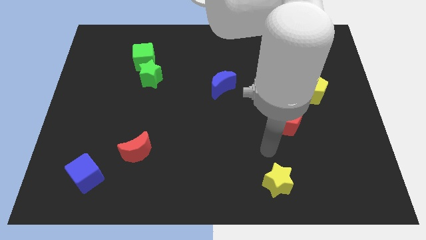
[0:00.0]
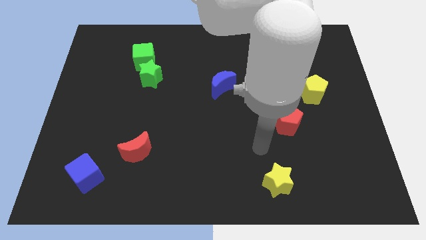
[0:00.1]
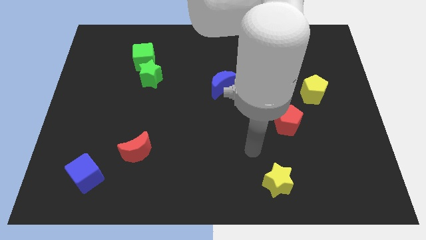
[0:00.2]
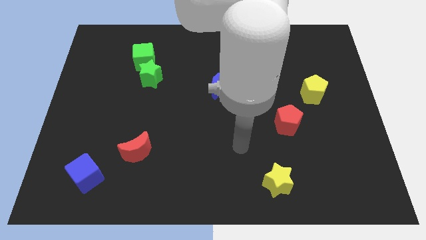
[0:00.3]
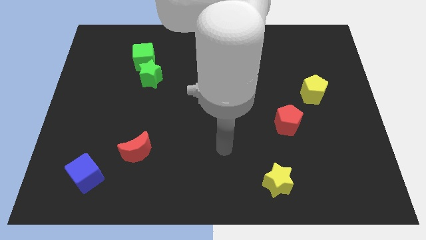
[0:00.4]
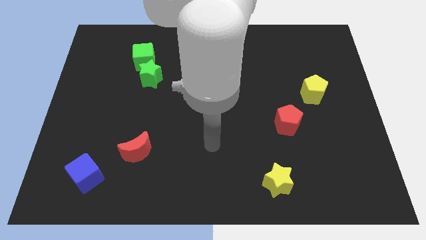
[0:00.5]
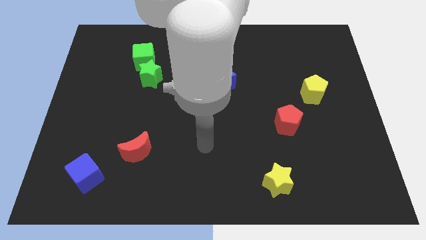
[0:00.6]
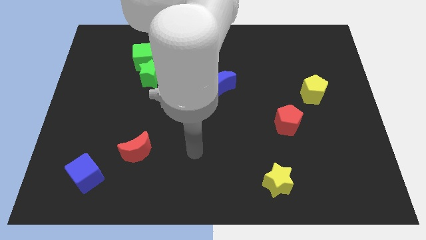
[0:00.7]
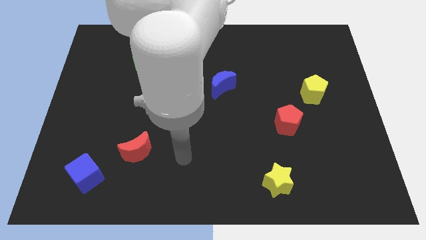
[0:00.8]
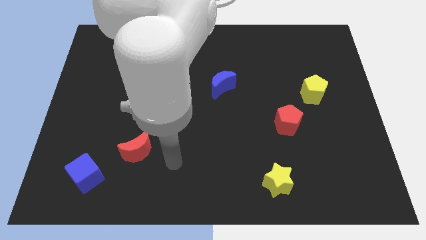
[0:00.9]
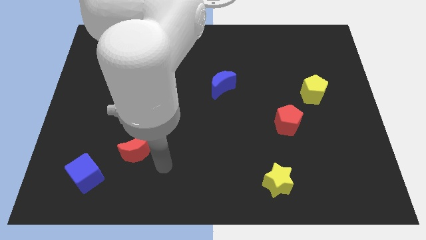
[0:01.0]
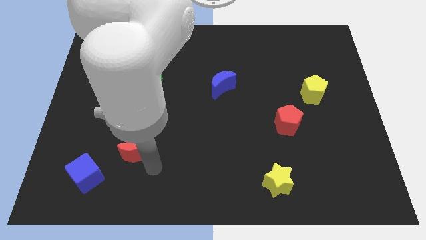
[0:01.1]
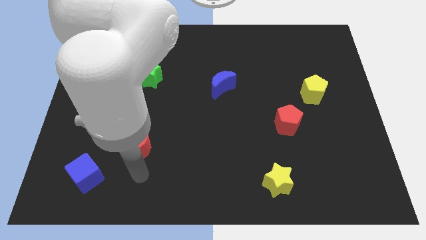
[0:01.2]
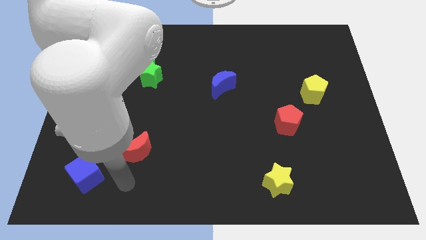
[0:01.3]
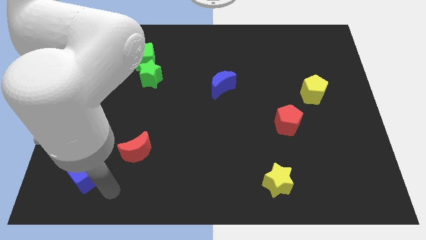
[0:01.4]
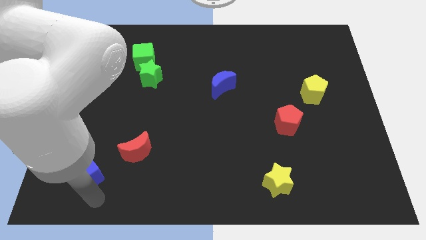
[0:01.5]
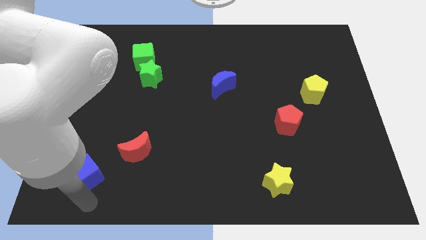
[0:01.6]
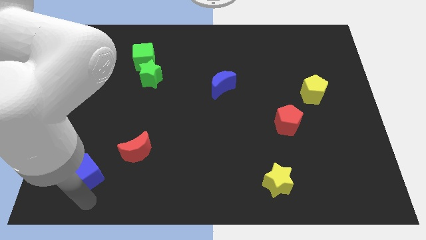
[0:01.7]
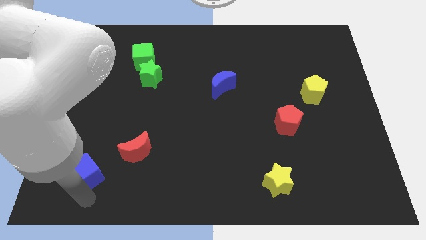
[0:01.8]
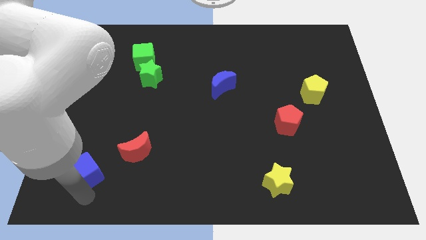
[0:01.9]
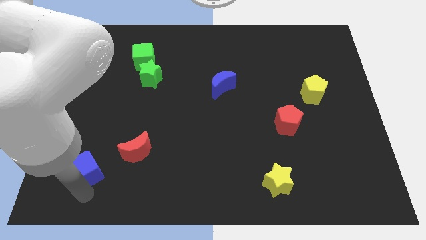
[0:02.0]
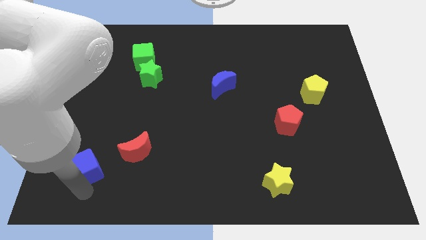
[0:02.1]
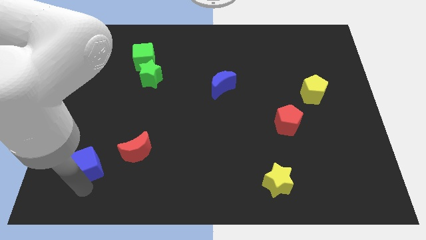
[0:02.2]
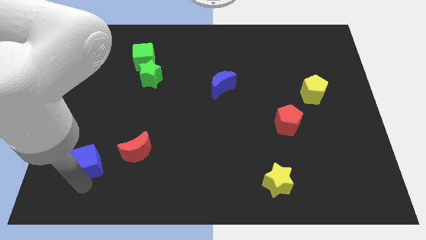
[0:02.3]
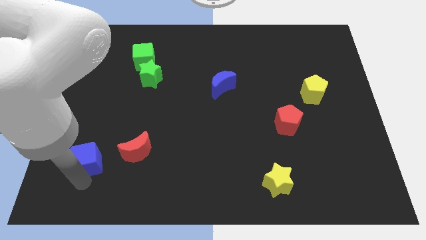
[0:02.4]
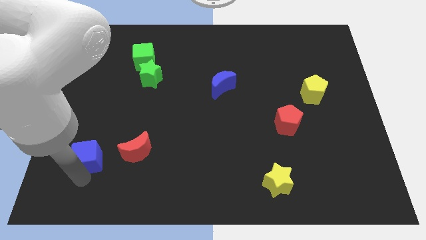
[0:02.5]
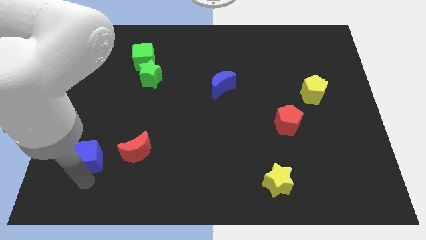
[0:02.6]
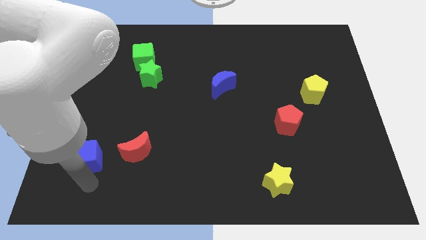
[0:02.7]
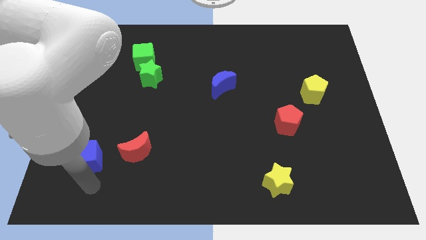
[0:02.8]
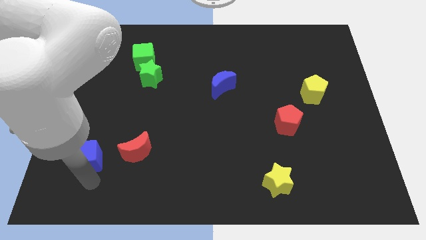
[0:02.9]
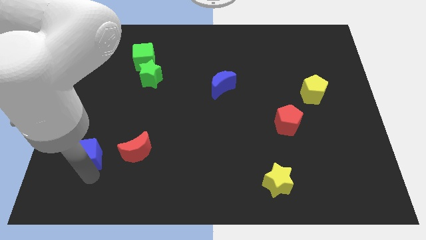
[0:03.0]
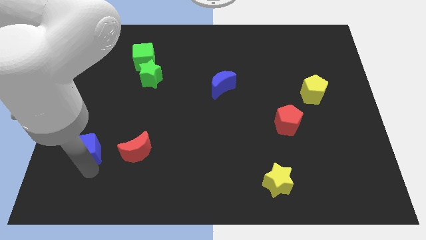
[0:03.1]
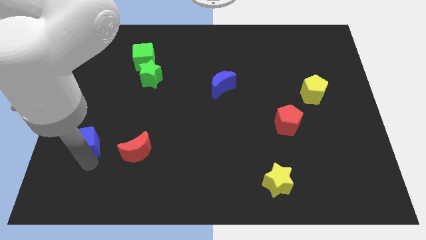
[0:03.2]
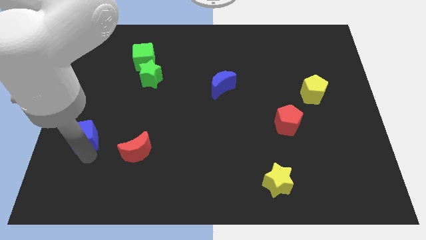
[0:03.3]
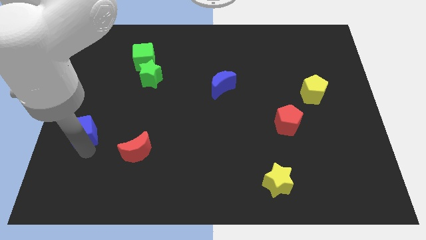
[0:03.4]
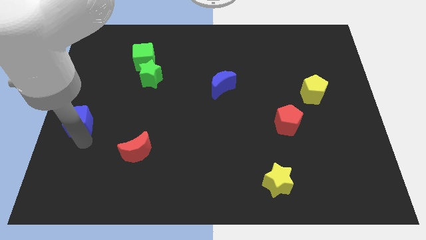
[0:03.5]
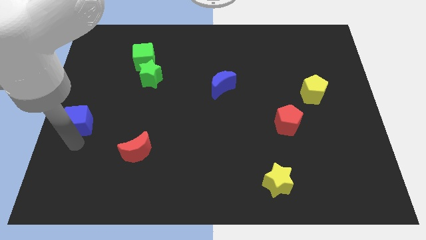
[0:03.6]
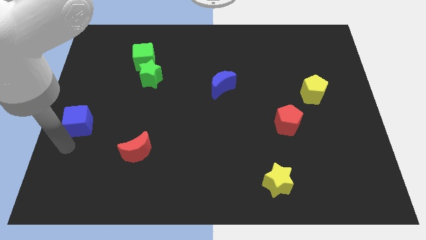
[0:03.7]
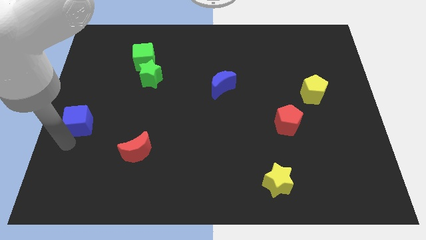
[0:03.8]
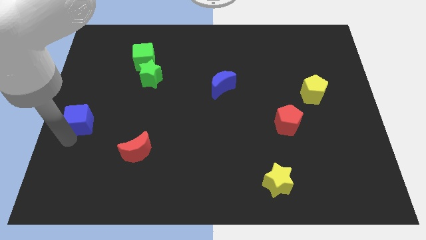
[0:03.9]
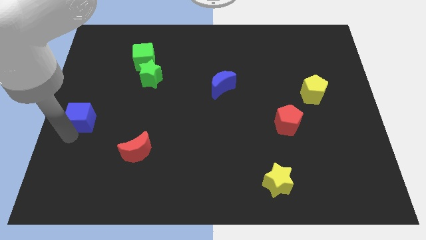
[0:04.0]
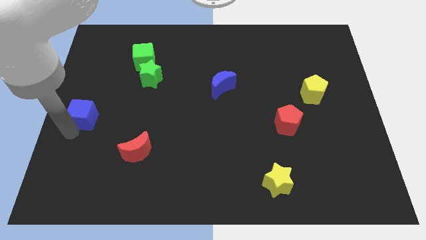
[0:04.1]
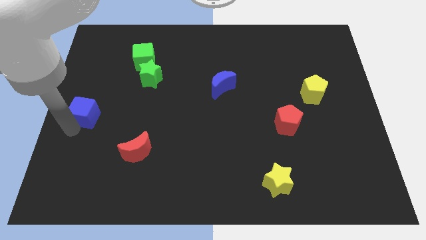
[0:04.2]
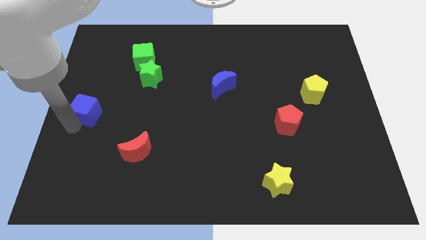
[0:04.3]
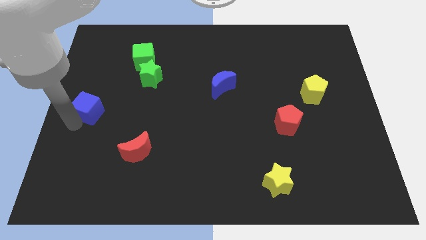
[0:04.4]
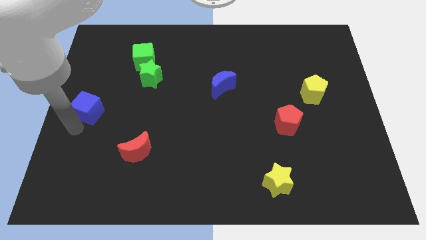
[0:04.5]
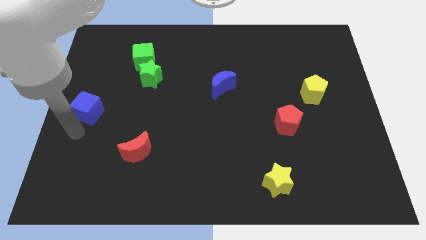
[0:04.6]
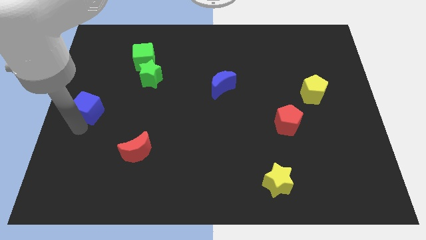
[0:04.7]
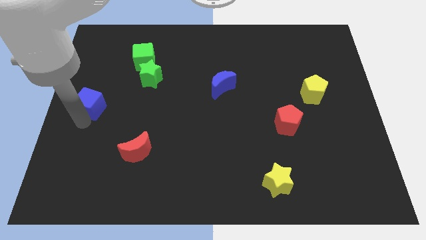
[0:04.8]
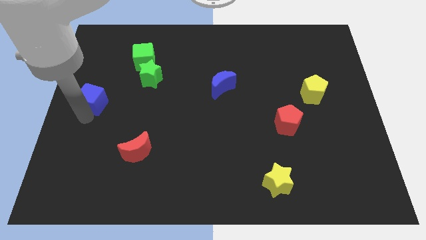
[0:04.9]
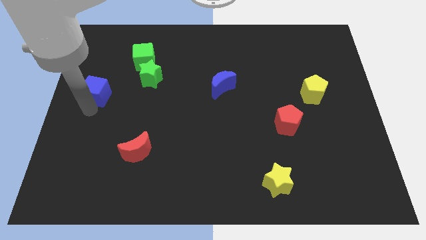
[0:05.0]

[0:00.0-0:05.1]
move the blue cube up

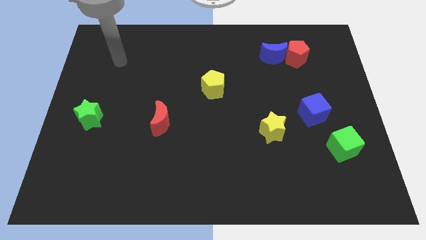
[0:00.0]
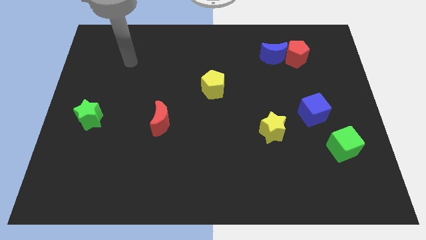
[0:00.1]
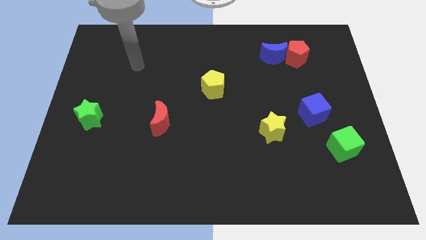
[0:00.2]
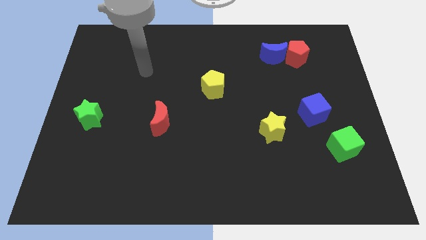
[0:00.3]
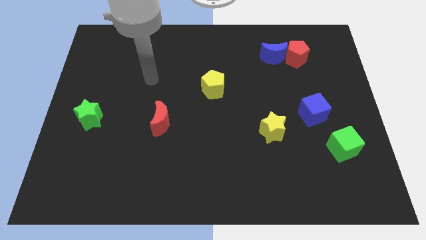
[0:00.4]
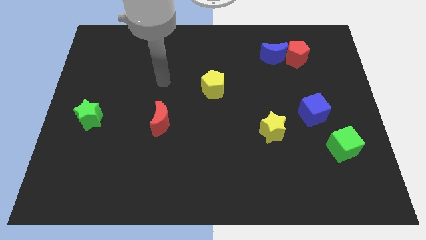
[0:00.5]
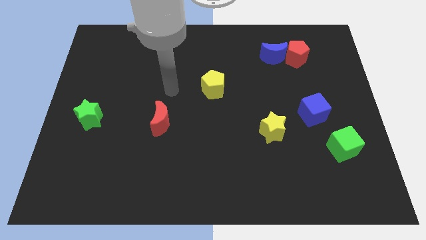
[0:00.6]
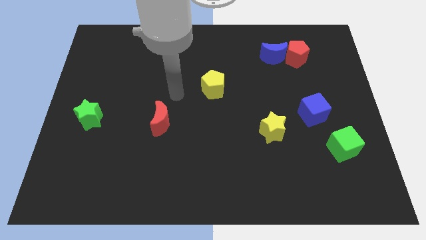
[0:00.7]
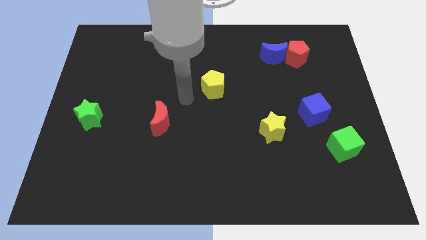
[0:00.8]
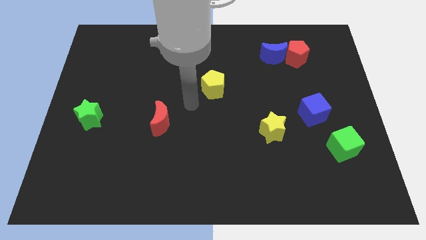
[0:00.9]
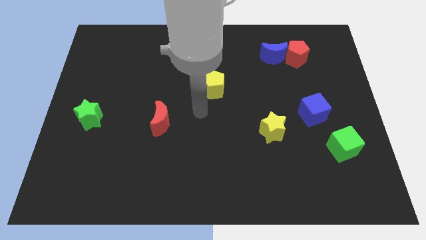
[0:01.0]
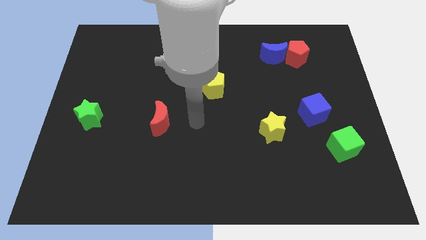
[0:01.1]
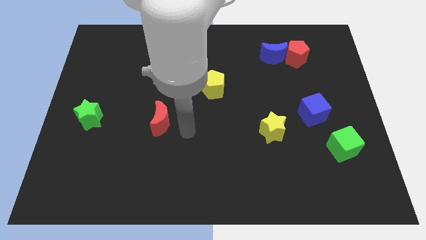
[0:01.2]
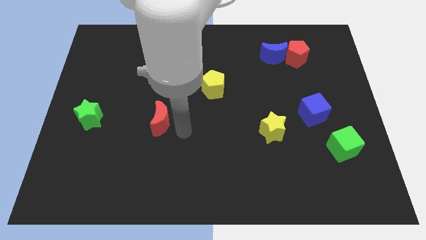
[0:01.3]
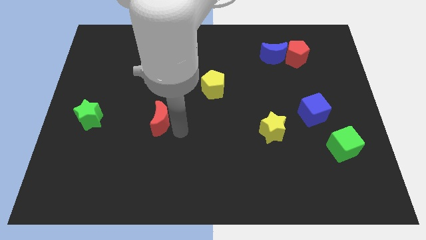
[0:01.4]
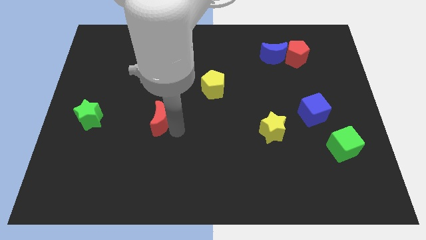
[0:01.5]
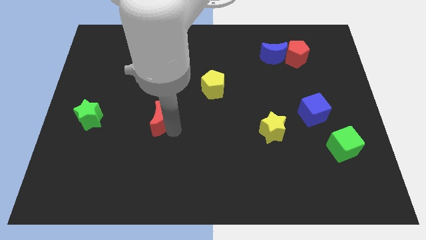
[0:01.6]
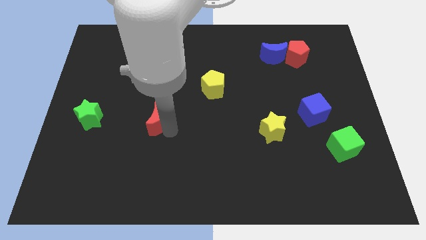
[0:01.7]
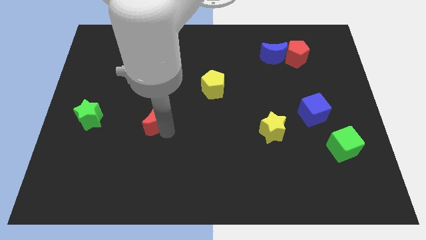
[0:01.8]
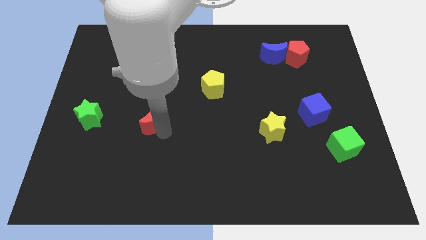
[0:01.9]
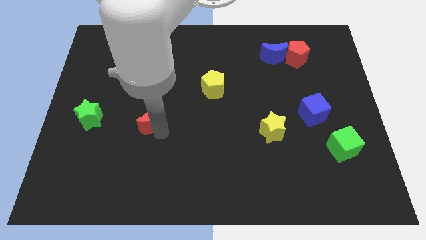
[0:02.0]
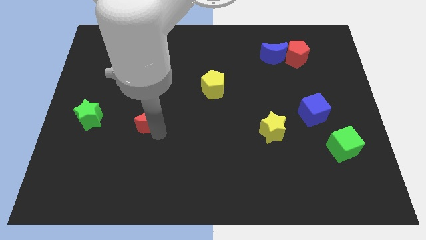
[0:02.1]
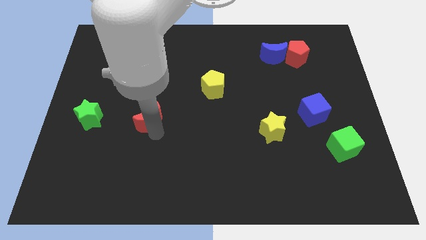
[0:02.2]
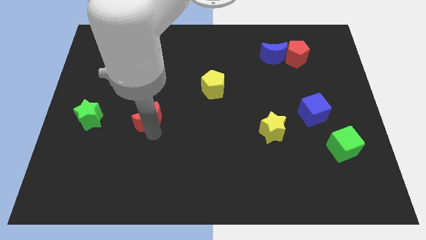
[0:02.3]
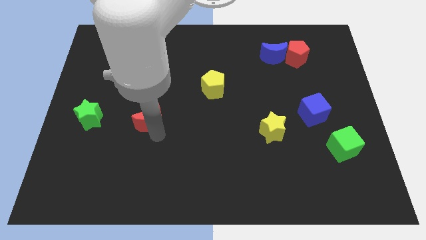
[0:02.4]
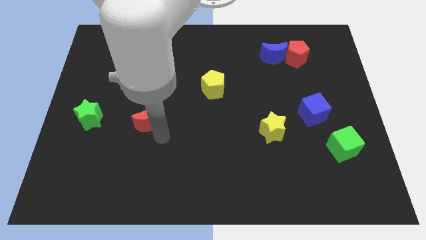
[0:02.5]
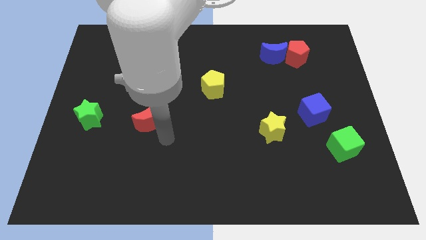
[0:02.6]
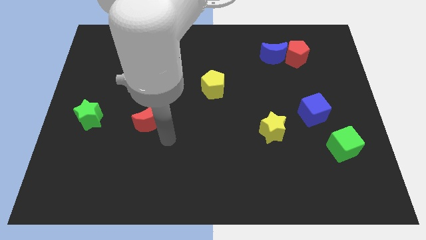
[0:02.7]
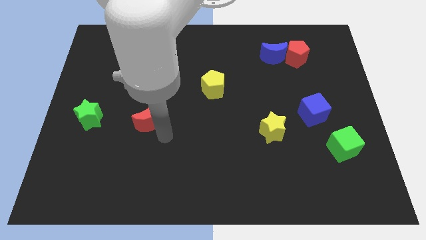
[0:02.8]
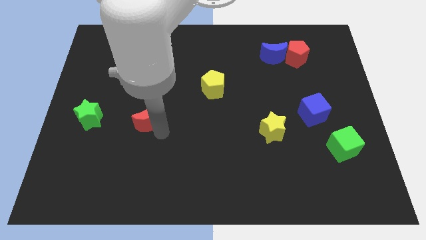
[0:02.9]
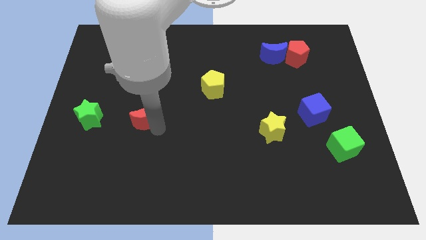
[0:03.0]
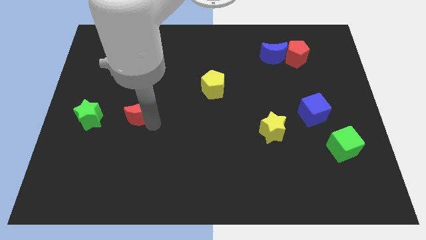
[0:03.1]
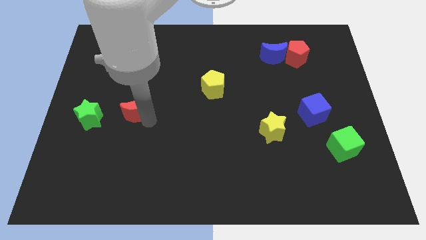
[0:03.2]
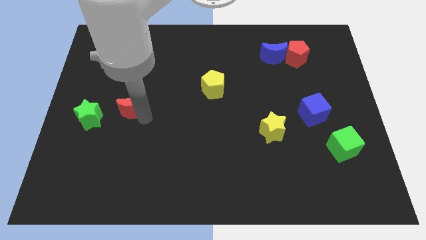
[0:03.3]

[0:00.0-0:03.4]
slightly move the red moon diagonally up and to the left
